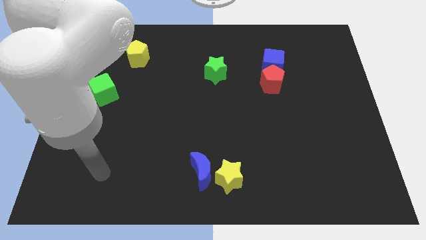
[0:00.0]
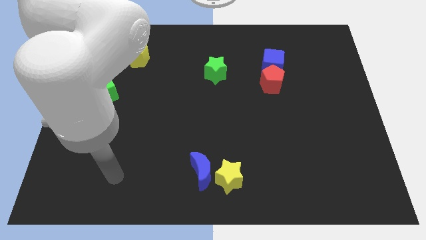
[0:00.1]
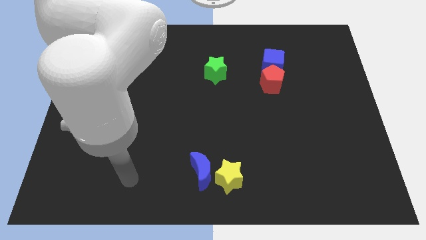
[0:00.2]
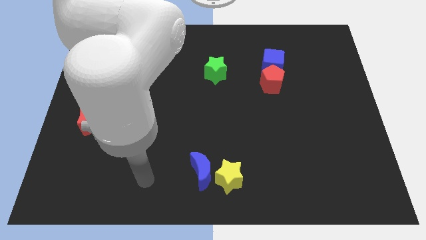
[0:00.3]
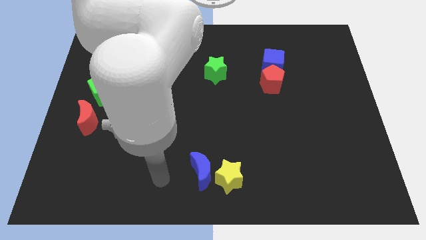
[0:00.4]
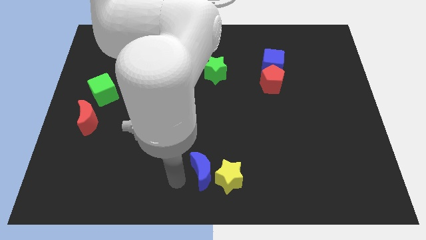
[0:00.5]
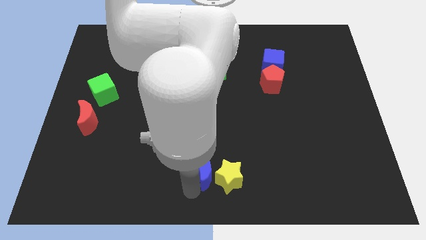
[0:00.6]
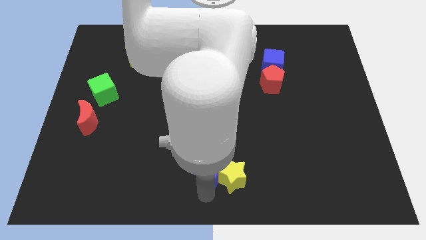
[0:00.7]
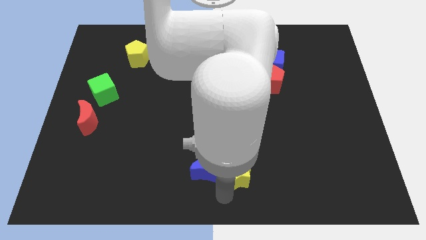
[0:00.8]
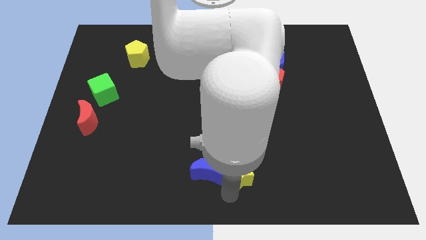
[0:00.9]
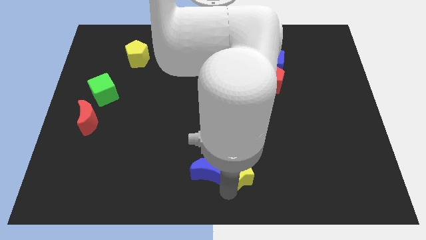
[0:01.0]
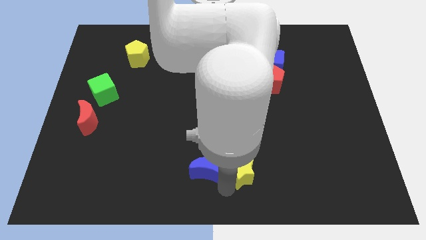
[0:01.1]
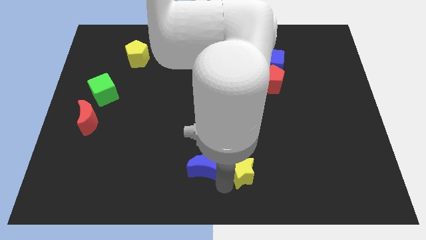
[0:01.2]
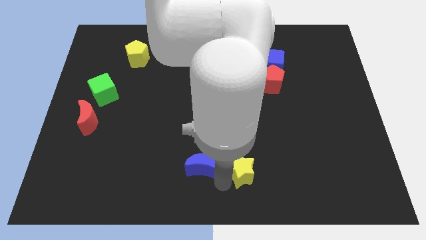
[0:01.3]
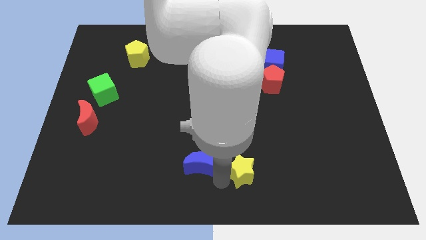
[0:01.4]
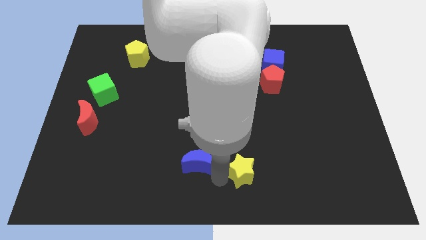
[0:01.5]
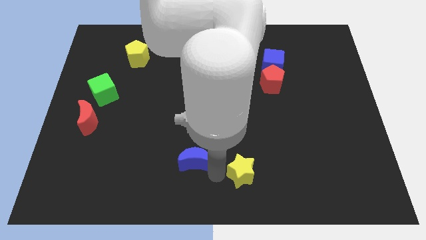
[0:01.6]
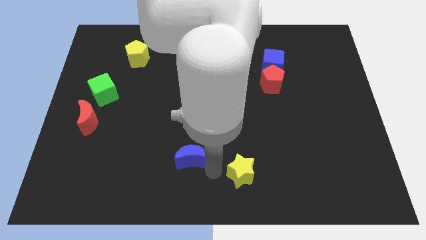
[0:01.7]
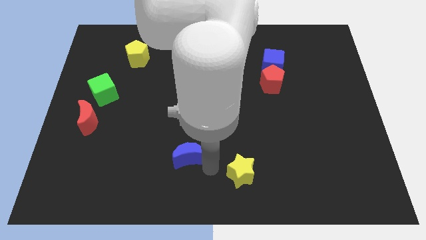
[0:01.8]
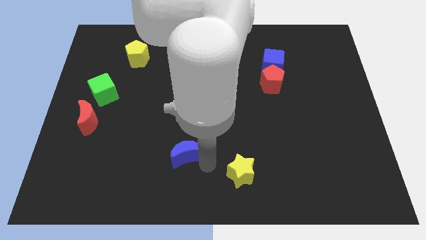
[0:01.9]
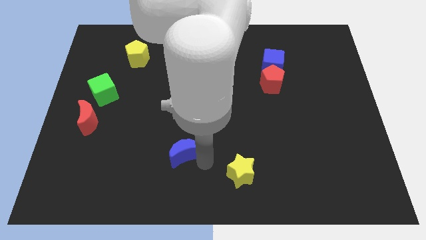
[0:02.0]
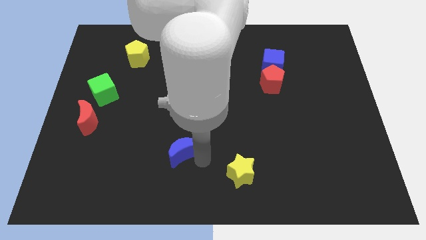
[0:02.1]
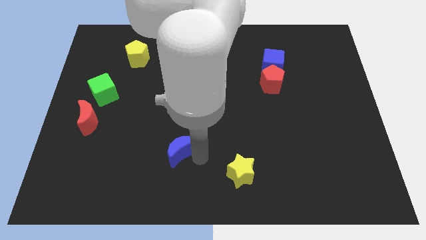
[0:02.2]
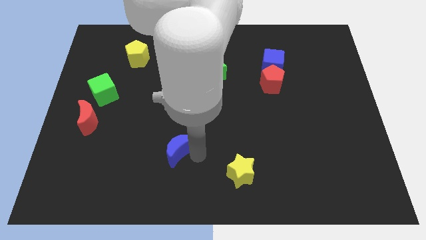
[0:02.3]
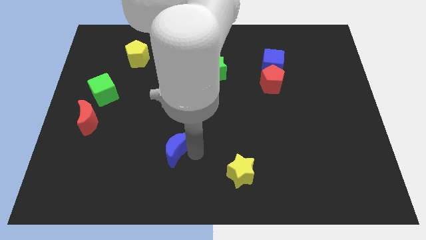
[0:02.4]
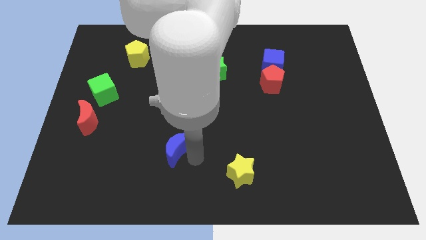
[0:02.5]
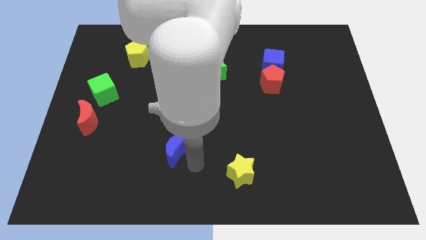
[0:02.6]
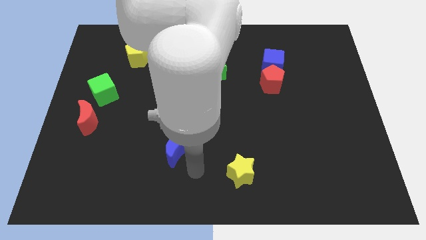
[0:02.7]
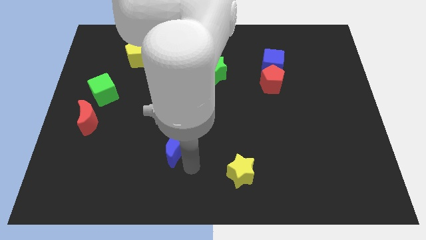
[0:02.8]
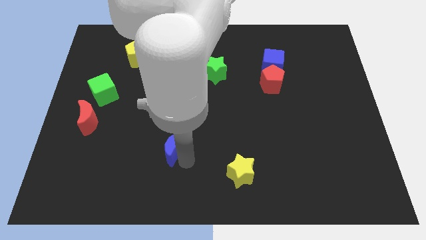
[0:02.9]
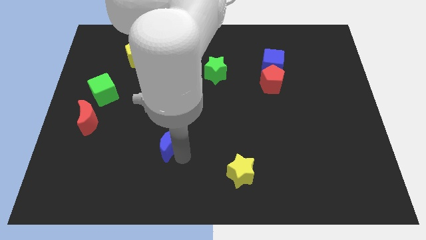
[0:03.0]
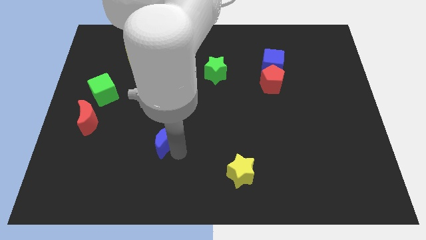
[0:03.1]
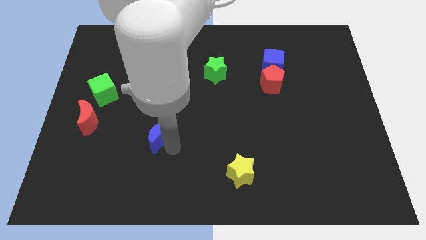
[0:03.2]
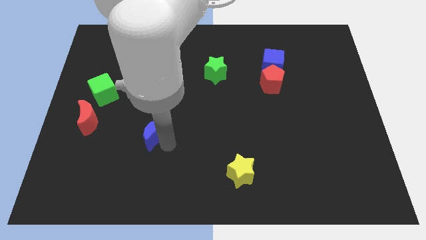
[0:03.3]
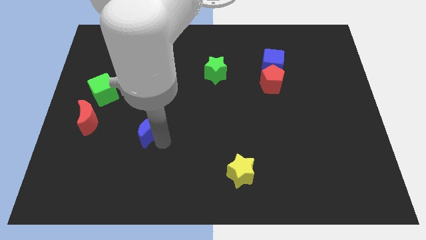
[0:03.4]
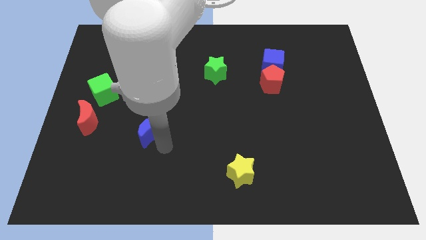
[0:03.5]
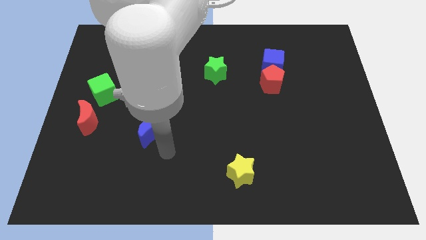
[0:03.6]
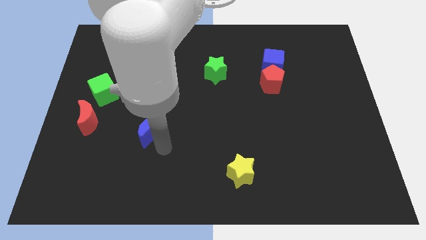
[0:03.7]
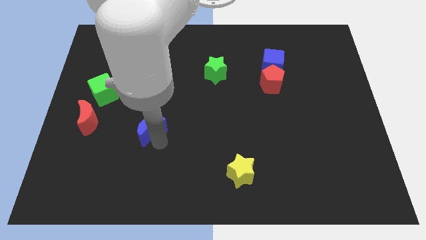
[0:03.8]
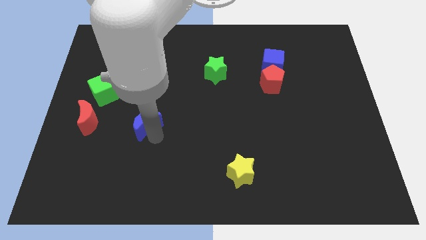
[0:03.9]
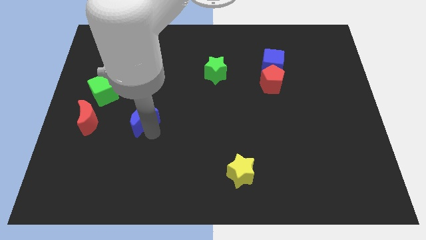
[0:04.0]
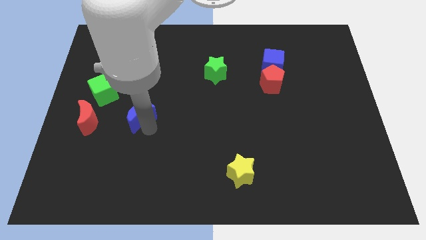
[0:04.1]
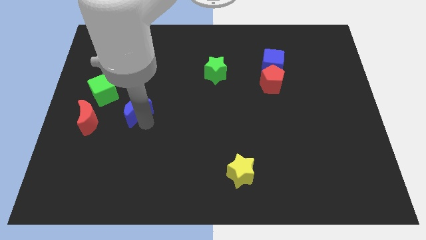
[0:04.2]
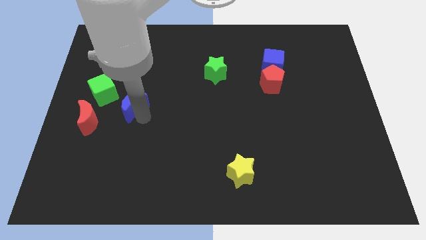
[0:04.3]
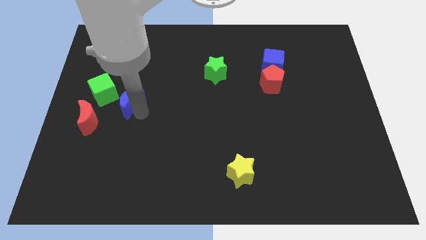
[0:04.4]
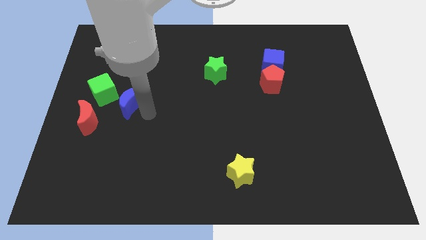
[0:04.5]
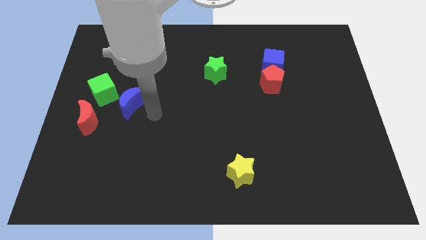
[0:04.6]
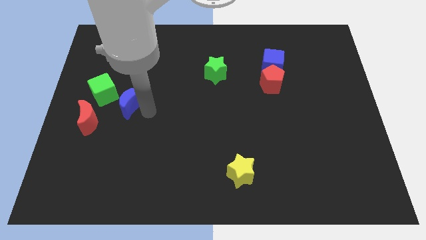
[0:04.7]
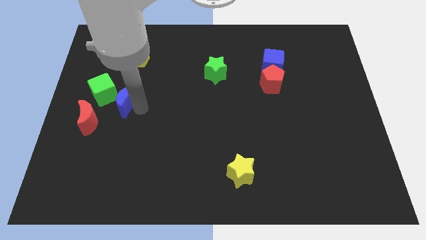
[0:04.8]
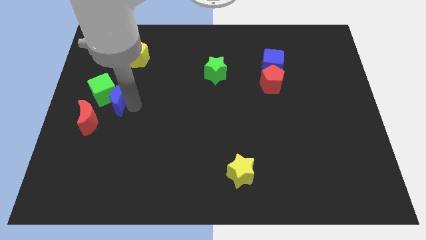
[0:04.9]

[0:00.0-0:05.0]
put the blue moon close to the green cube

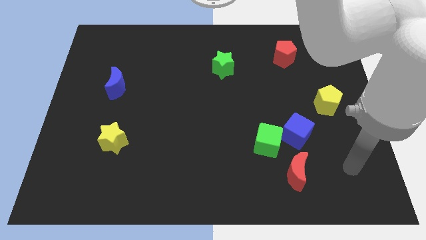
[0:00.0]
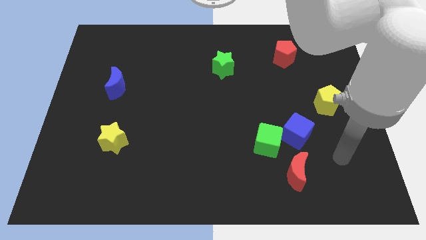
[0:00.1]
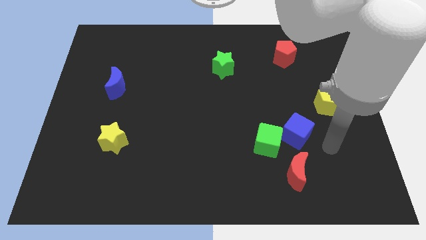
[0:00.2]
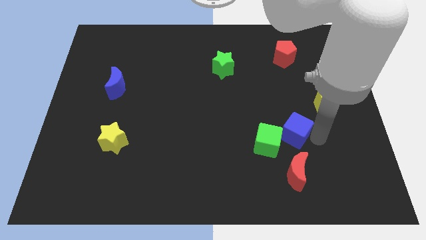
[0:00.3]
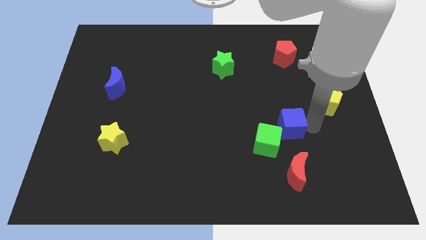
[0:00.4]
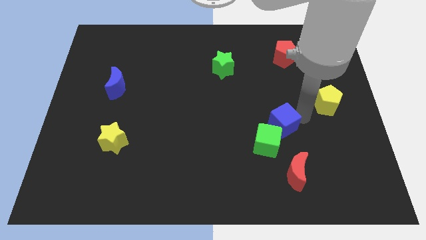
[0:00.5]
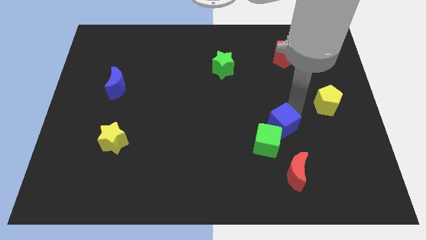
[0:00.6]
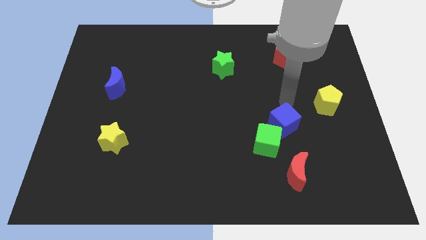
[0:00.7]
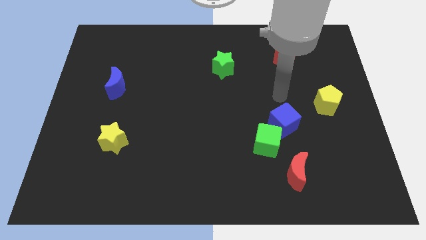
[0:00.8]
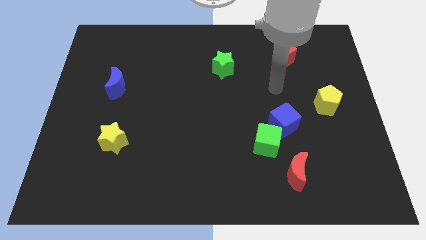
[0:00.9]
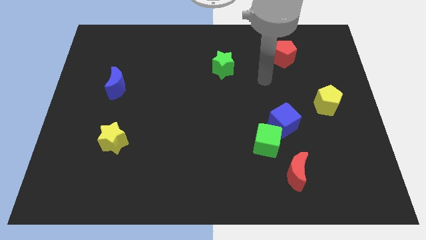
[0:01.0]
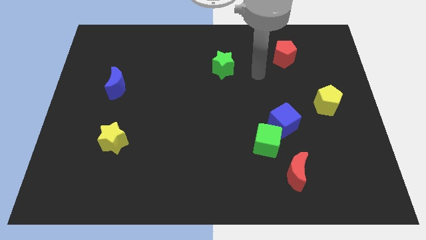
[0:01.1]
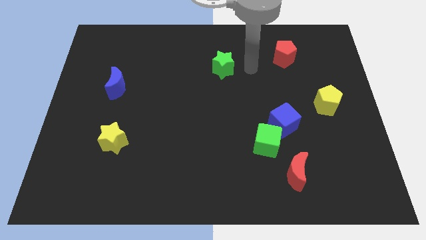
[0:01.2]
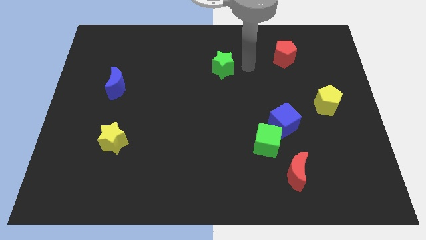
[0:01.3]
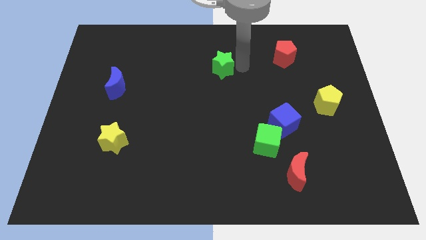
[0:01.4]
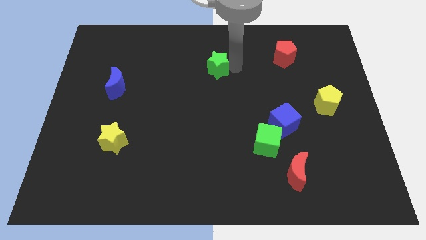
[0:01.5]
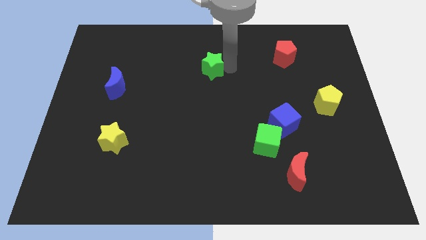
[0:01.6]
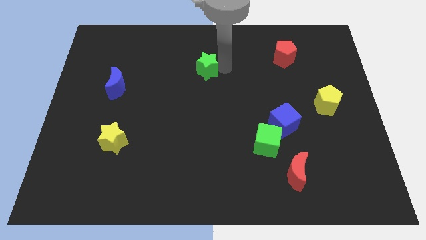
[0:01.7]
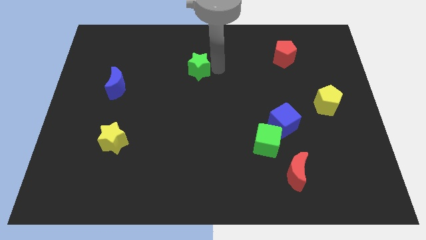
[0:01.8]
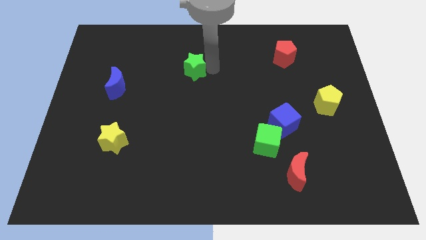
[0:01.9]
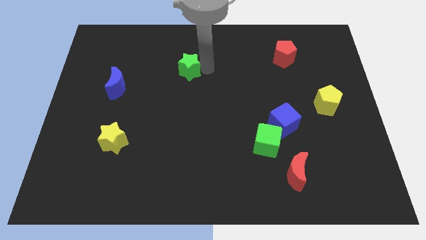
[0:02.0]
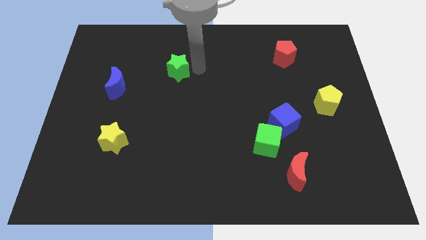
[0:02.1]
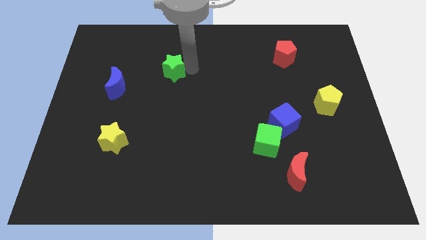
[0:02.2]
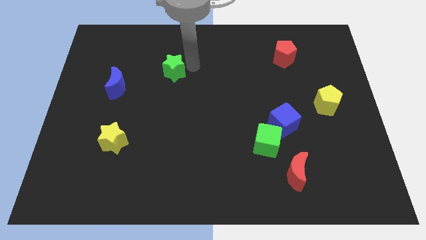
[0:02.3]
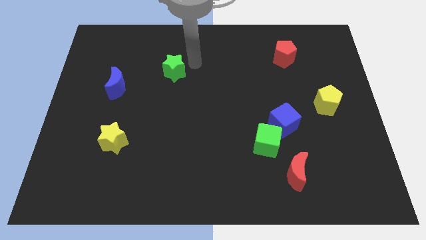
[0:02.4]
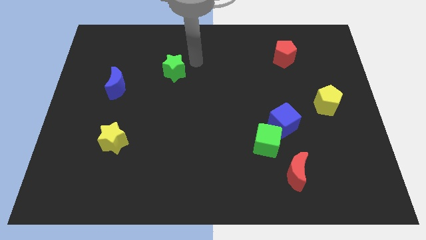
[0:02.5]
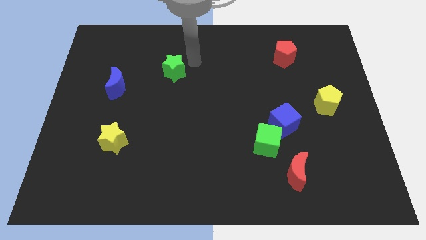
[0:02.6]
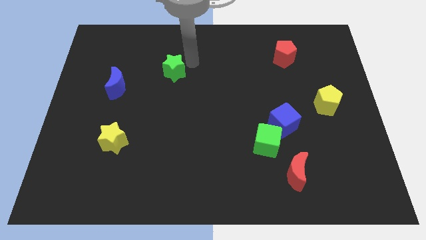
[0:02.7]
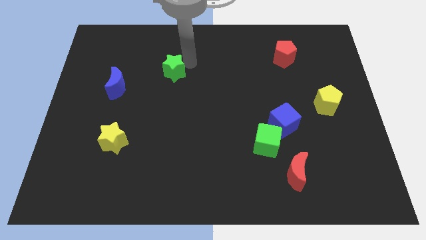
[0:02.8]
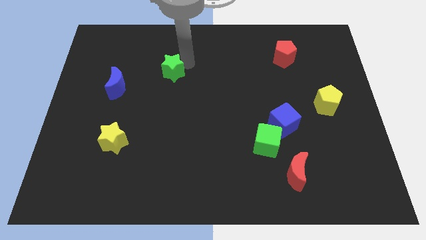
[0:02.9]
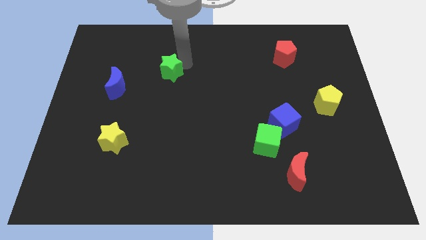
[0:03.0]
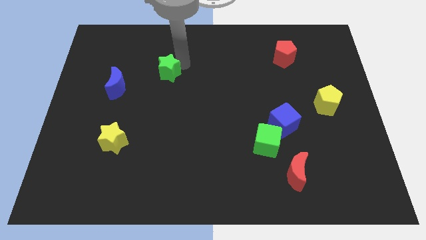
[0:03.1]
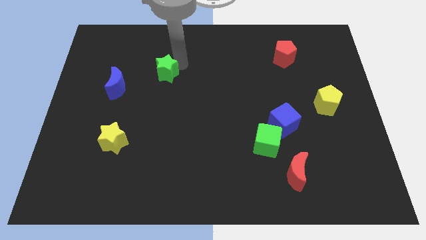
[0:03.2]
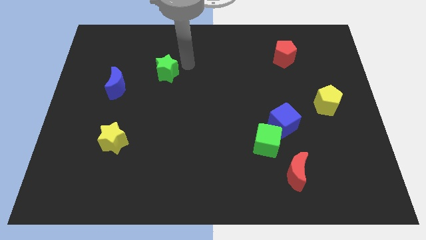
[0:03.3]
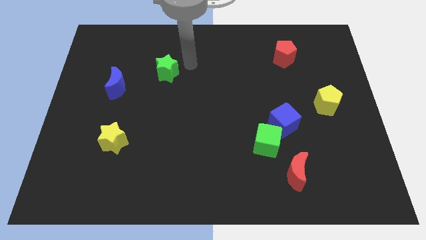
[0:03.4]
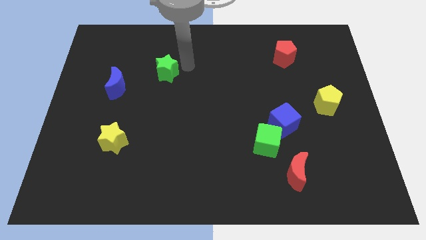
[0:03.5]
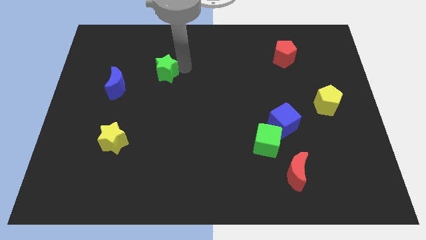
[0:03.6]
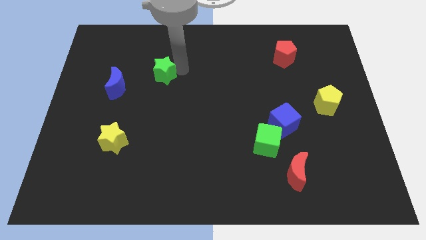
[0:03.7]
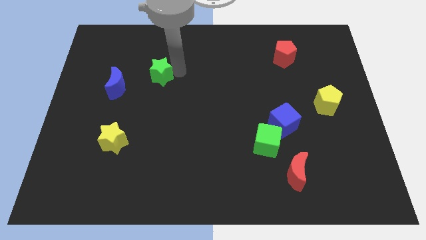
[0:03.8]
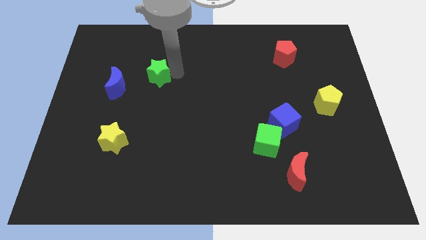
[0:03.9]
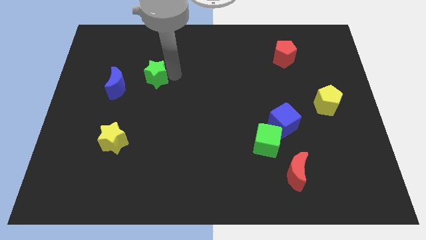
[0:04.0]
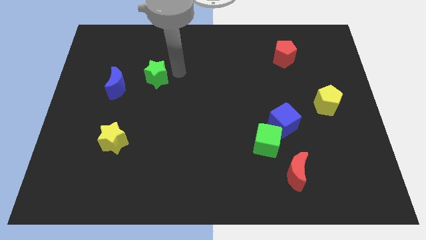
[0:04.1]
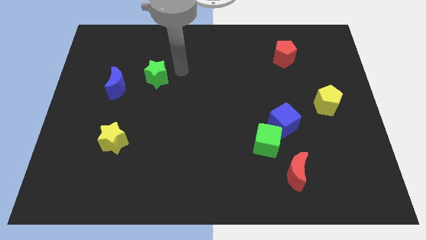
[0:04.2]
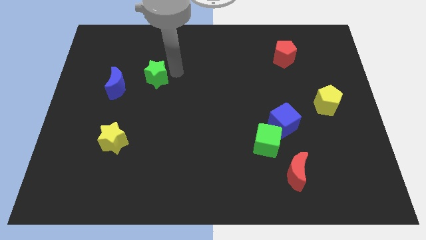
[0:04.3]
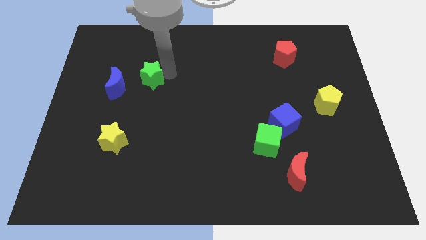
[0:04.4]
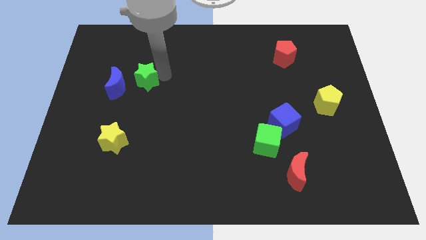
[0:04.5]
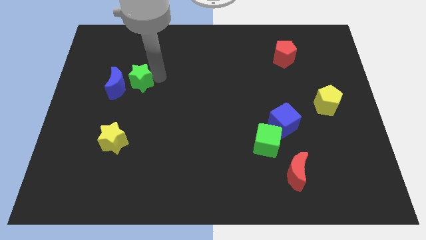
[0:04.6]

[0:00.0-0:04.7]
put the green star to the blue moon
